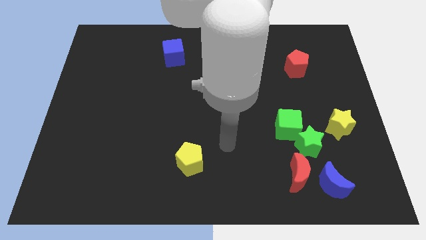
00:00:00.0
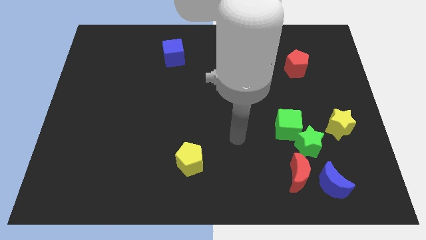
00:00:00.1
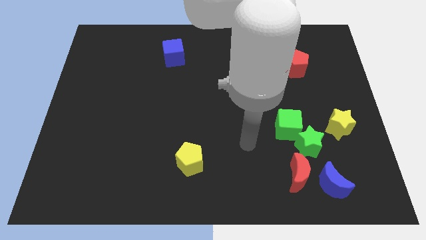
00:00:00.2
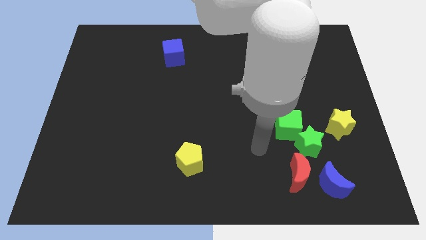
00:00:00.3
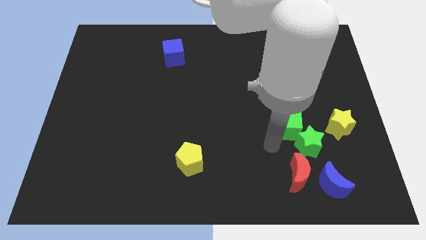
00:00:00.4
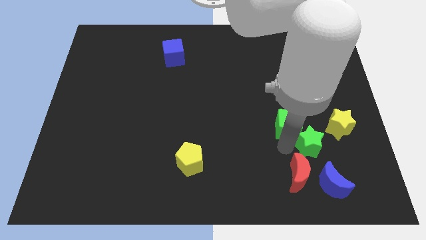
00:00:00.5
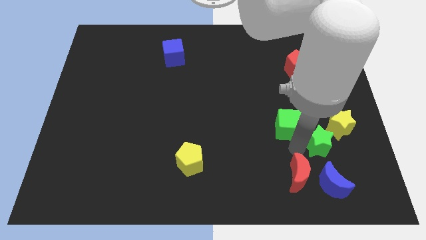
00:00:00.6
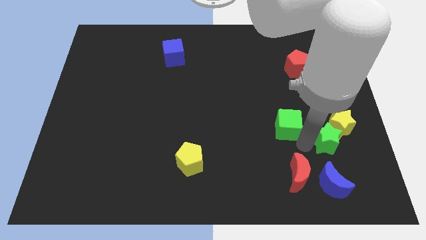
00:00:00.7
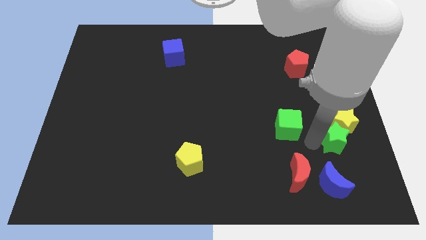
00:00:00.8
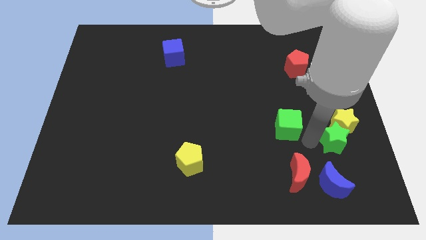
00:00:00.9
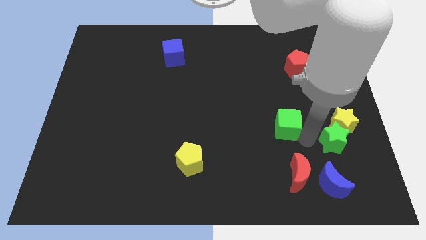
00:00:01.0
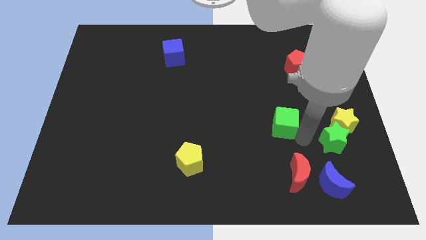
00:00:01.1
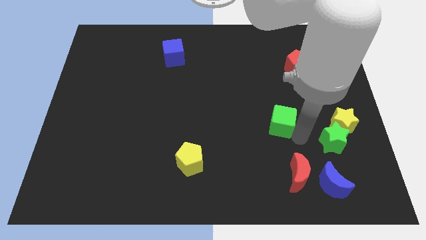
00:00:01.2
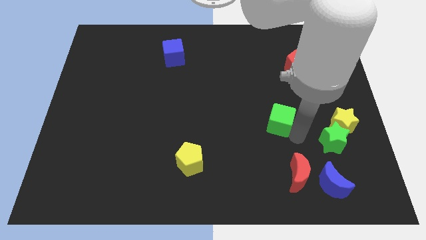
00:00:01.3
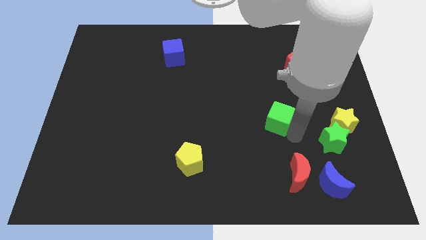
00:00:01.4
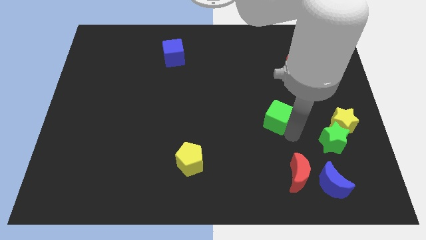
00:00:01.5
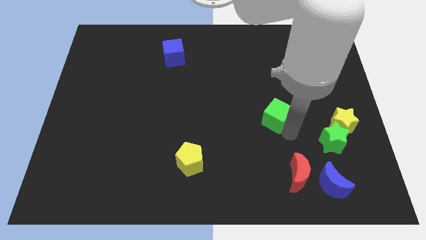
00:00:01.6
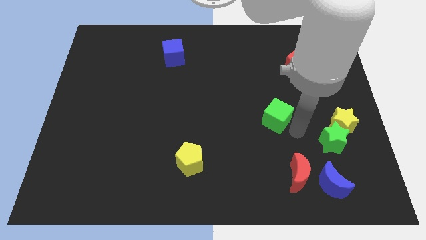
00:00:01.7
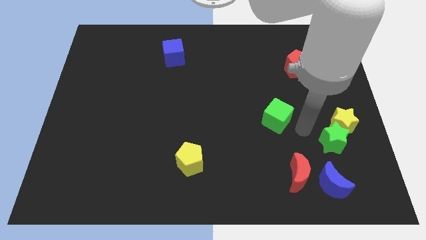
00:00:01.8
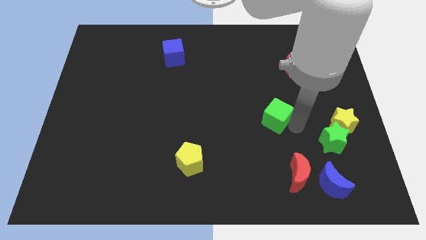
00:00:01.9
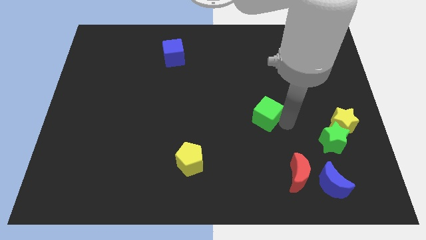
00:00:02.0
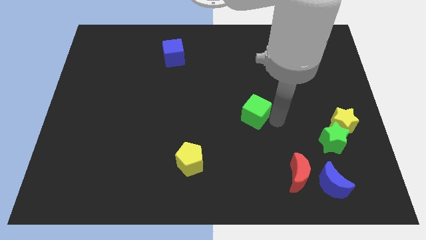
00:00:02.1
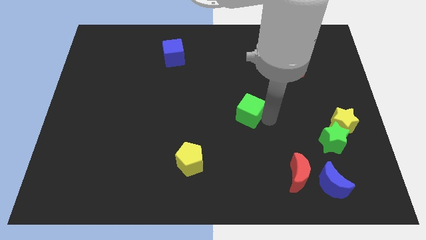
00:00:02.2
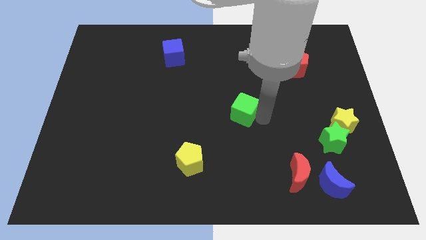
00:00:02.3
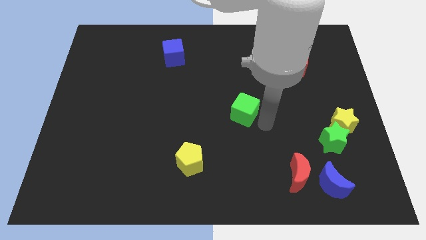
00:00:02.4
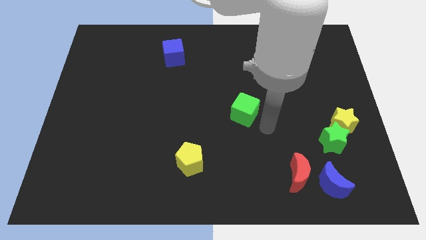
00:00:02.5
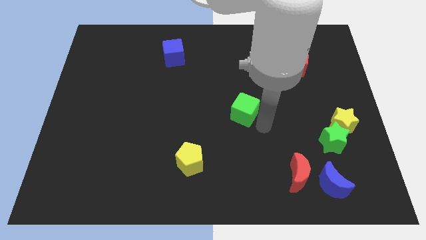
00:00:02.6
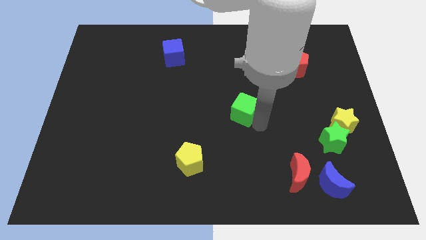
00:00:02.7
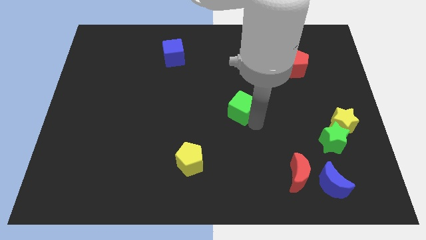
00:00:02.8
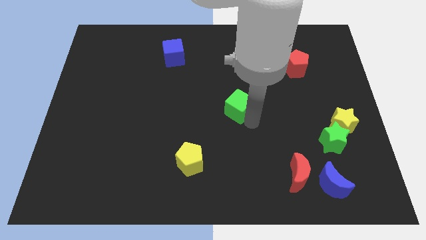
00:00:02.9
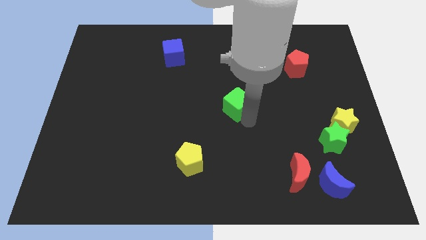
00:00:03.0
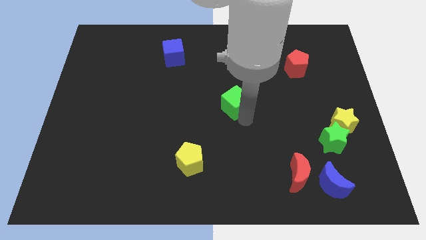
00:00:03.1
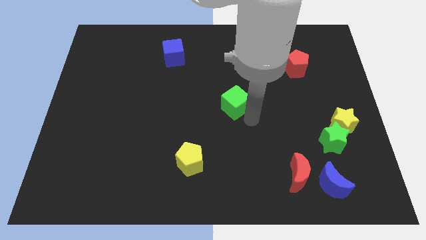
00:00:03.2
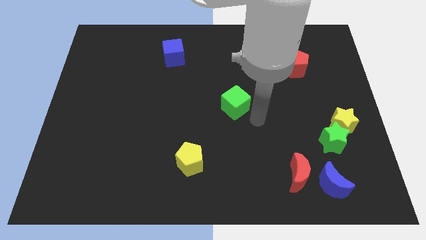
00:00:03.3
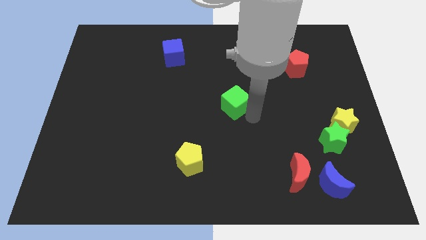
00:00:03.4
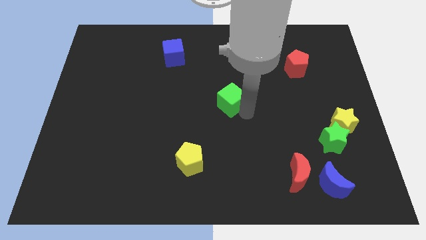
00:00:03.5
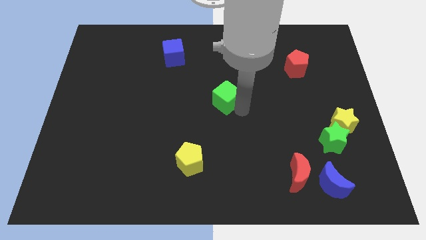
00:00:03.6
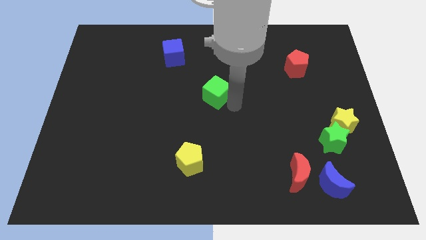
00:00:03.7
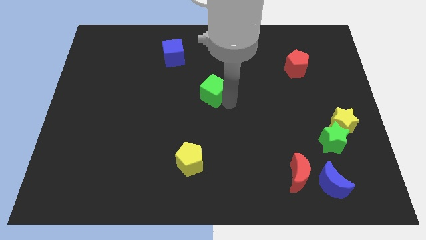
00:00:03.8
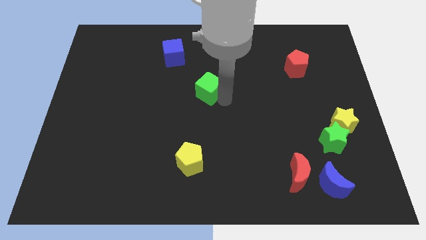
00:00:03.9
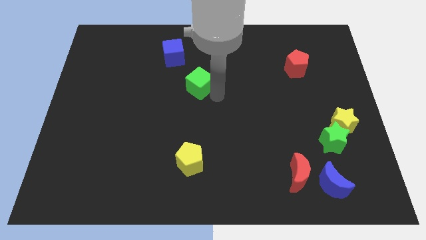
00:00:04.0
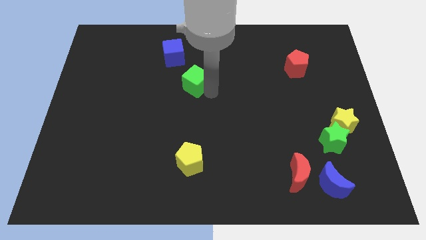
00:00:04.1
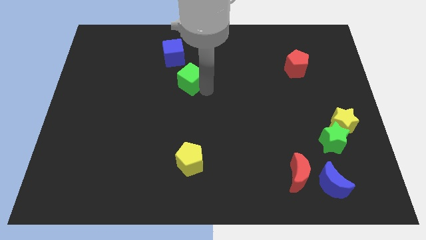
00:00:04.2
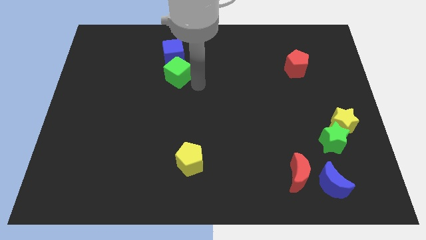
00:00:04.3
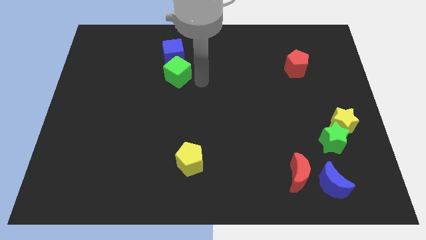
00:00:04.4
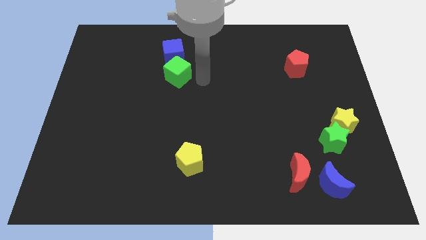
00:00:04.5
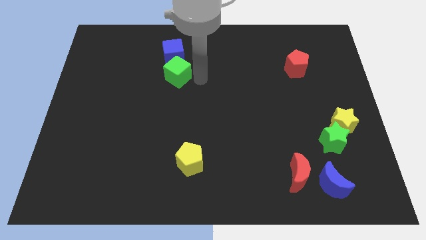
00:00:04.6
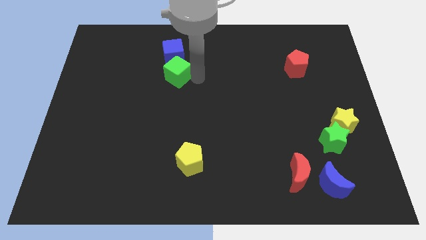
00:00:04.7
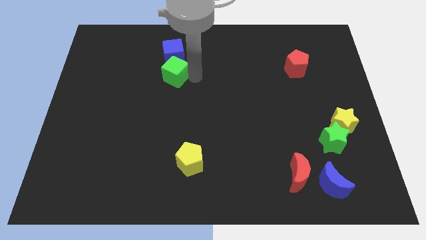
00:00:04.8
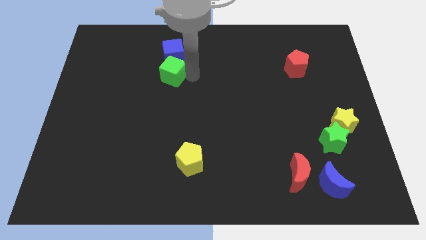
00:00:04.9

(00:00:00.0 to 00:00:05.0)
move the green cube diagonally down and to the left of the blue cube

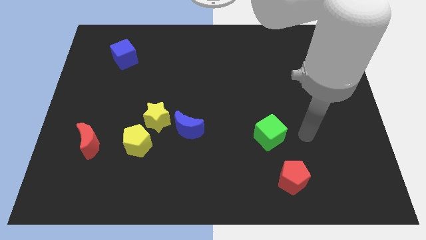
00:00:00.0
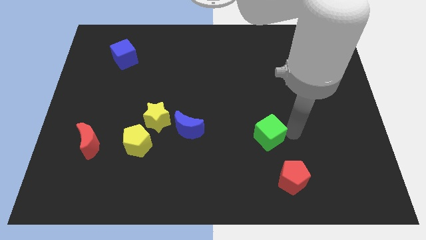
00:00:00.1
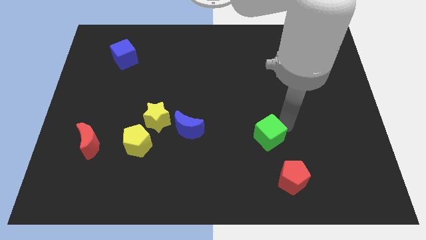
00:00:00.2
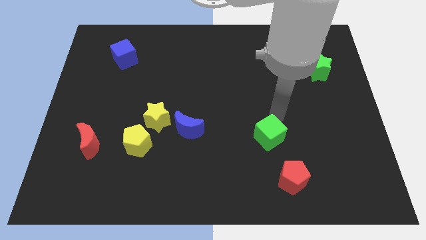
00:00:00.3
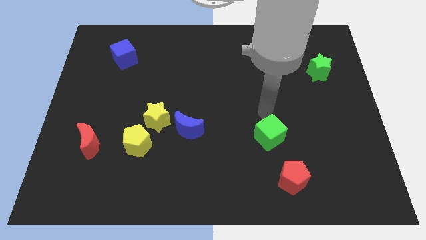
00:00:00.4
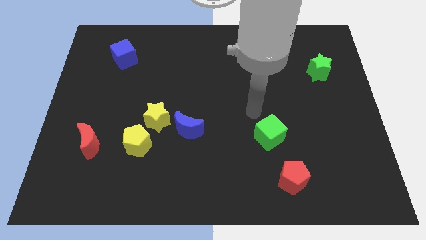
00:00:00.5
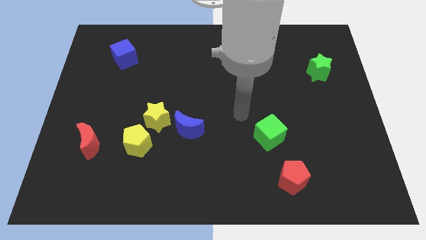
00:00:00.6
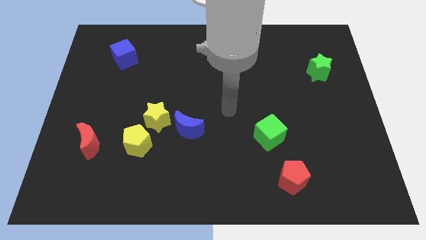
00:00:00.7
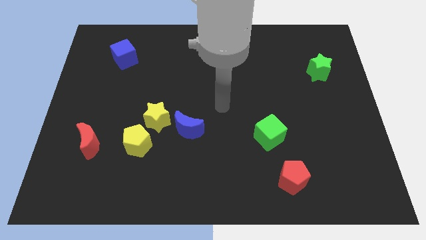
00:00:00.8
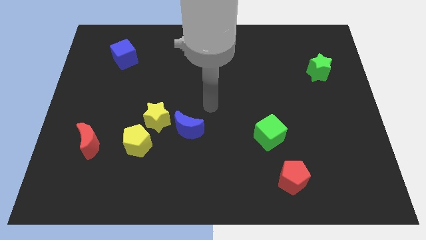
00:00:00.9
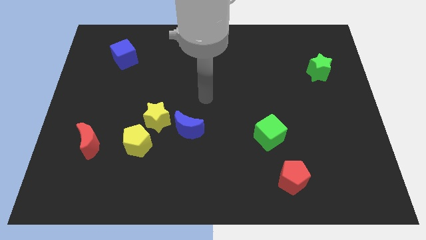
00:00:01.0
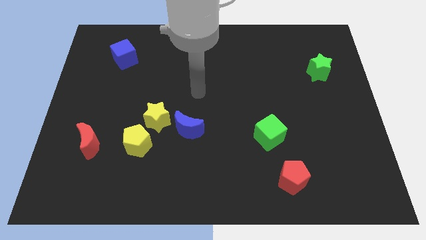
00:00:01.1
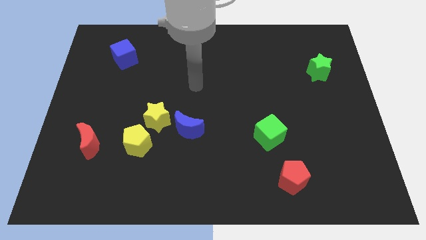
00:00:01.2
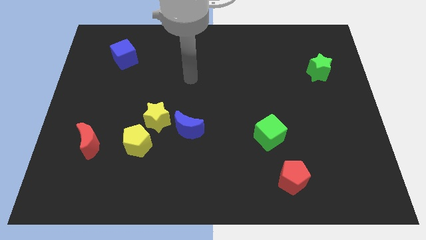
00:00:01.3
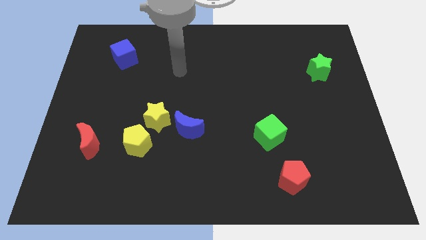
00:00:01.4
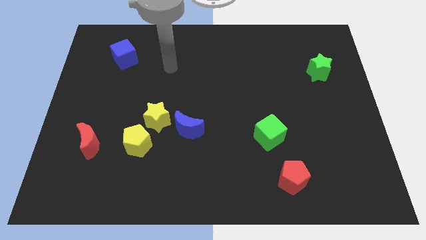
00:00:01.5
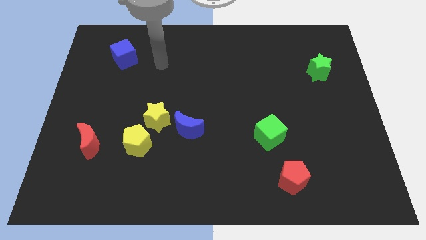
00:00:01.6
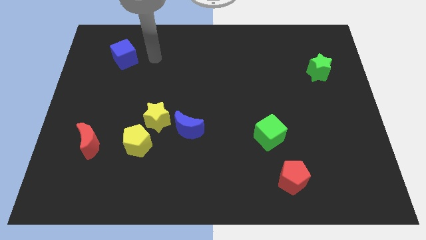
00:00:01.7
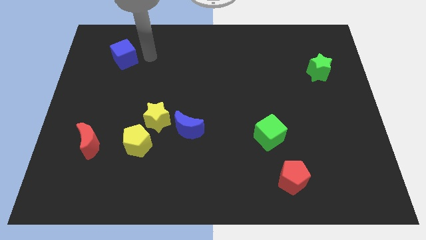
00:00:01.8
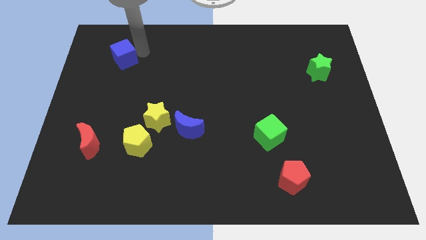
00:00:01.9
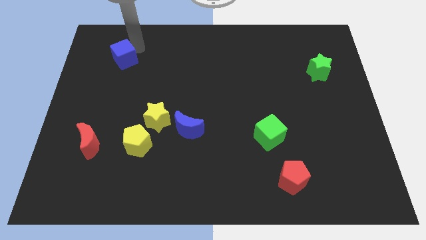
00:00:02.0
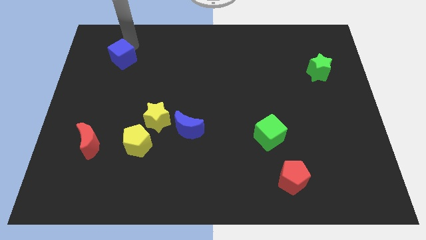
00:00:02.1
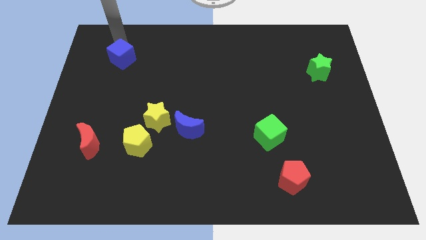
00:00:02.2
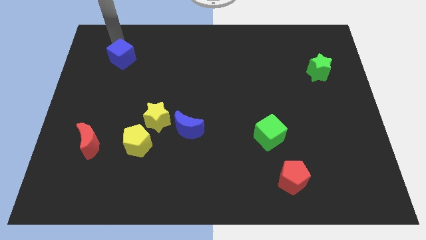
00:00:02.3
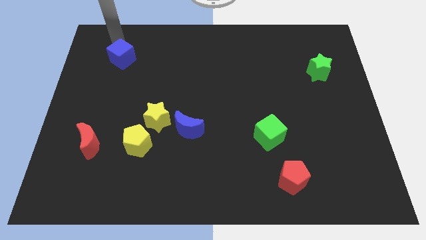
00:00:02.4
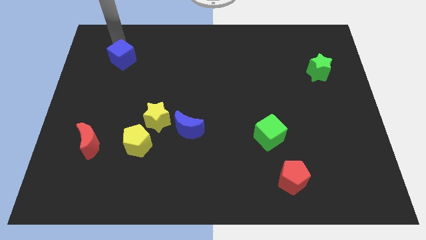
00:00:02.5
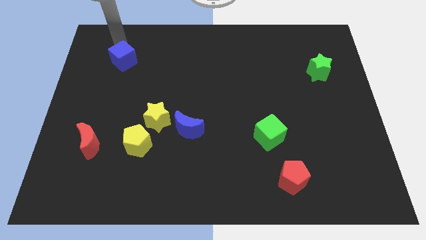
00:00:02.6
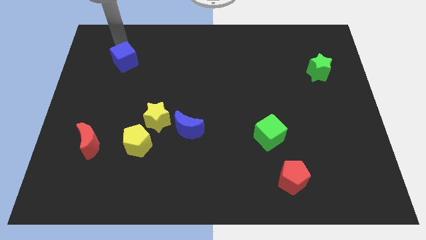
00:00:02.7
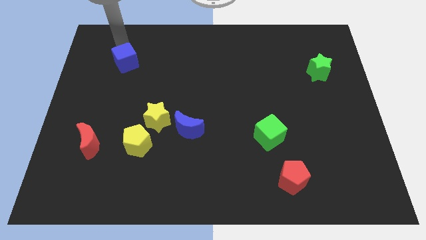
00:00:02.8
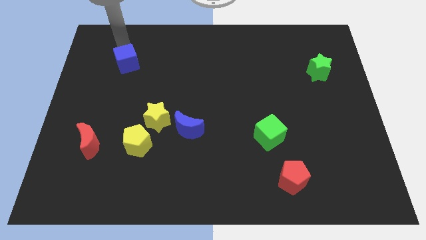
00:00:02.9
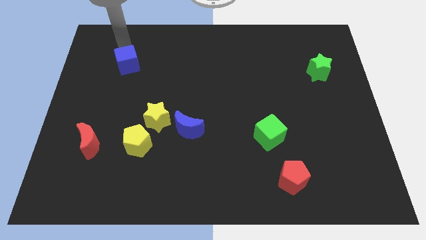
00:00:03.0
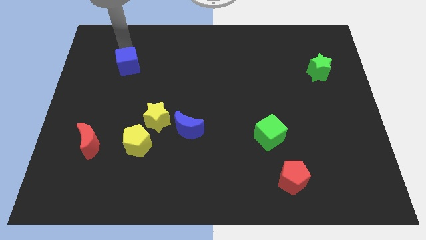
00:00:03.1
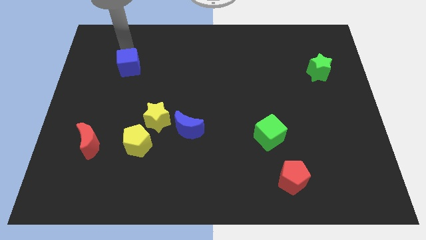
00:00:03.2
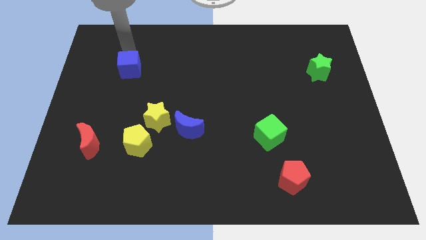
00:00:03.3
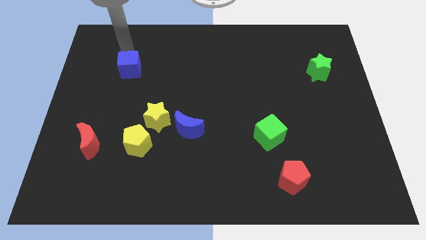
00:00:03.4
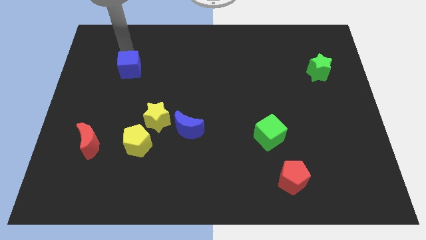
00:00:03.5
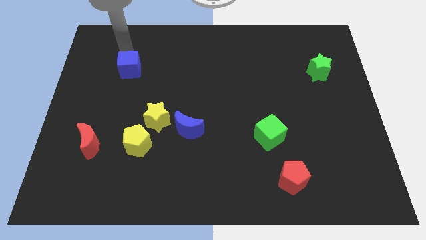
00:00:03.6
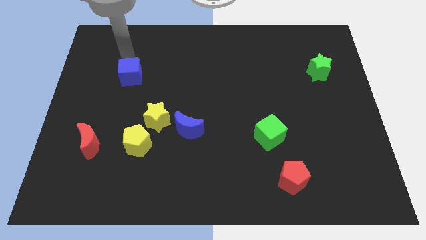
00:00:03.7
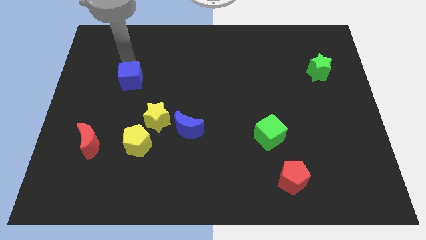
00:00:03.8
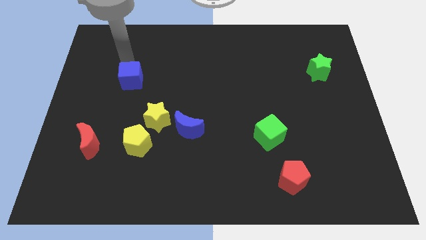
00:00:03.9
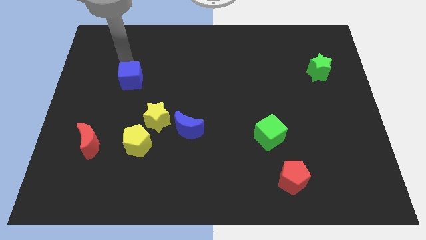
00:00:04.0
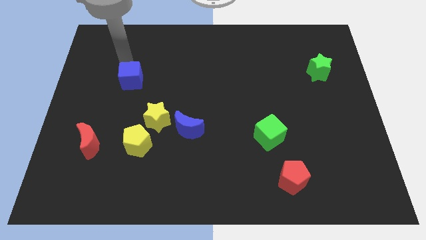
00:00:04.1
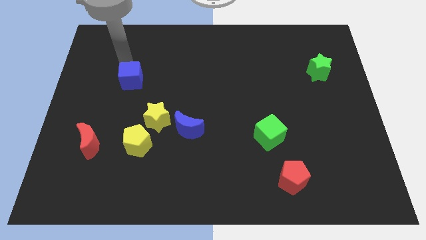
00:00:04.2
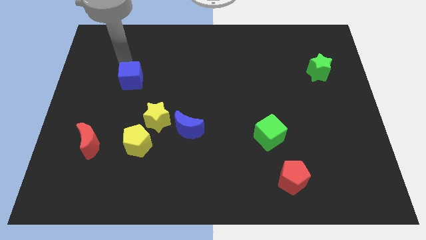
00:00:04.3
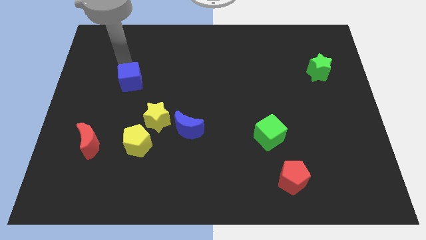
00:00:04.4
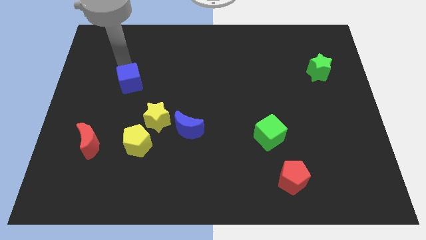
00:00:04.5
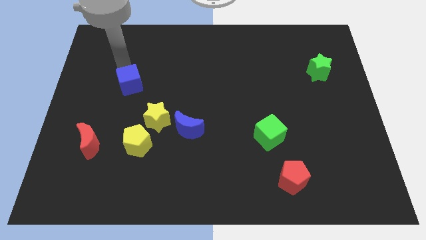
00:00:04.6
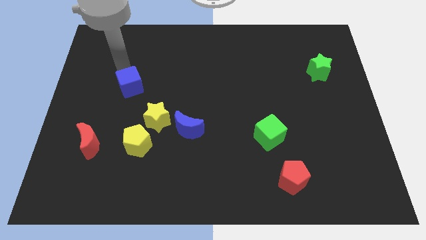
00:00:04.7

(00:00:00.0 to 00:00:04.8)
put the blue cube to the top left side of the yellow star
